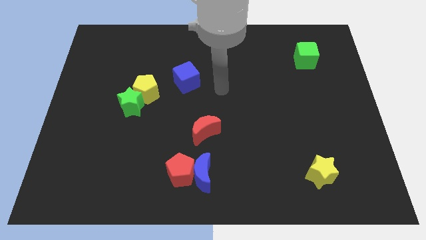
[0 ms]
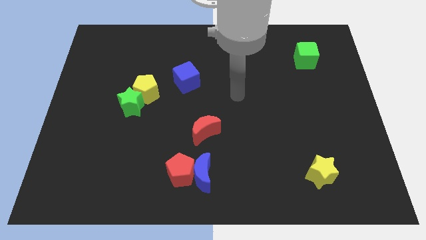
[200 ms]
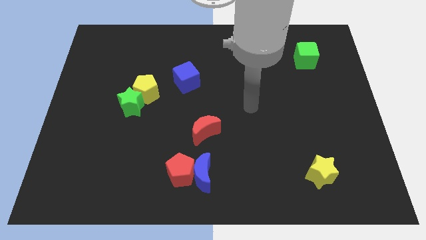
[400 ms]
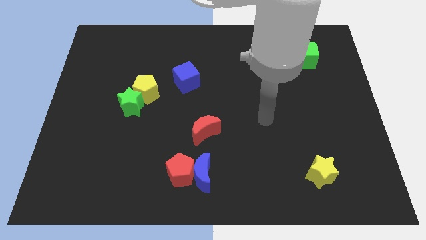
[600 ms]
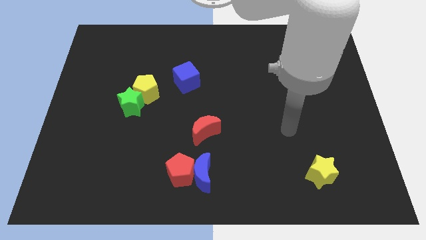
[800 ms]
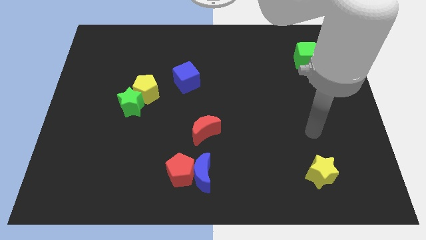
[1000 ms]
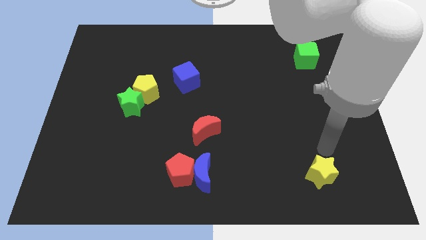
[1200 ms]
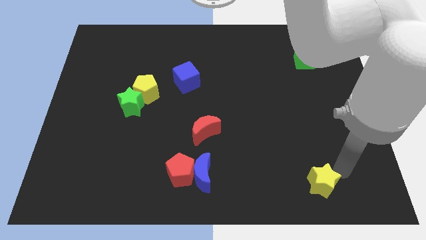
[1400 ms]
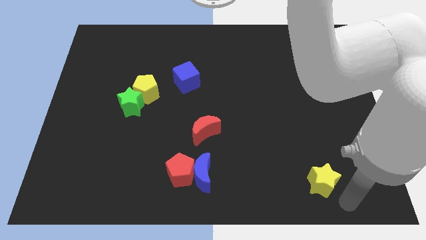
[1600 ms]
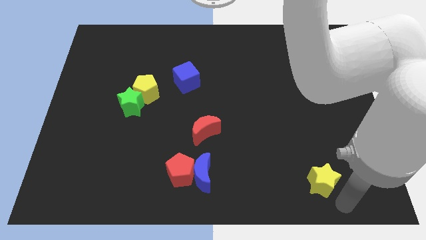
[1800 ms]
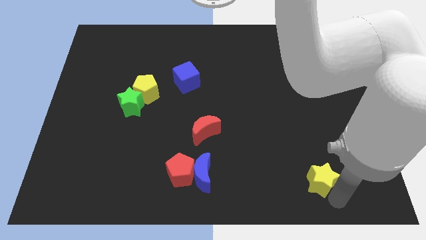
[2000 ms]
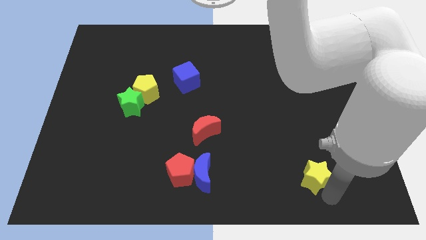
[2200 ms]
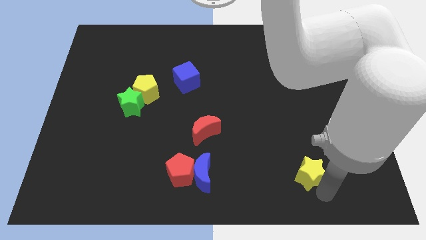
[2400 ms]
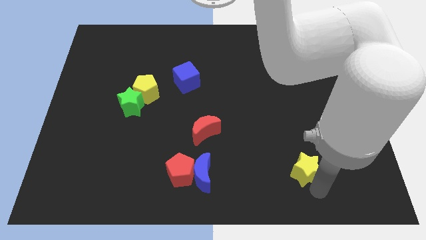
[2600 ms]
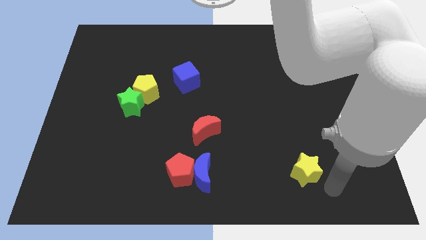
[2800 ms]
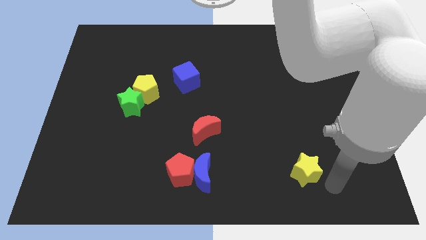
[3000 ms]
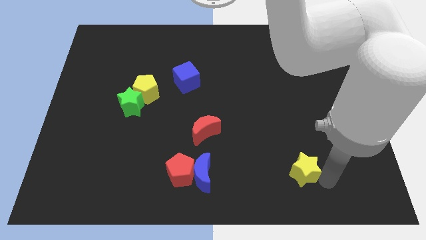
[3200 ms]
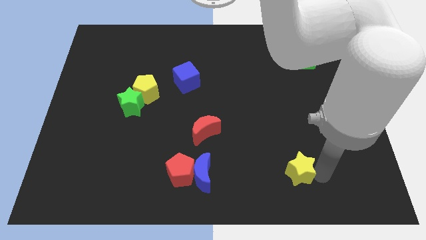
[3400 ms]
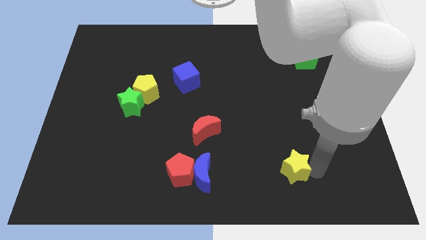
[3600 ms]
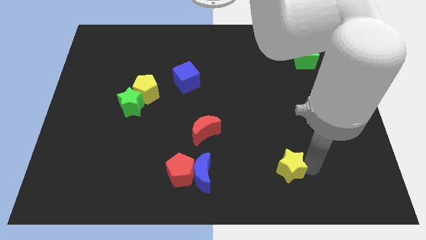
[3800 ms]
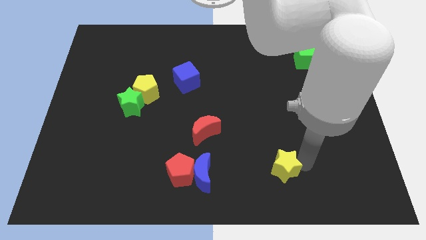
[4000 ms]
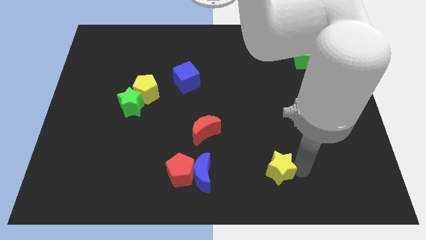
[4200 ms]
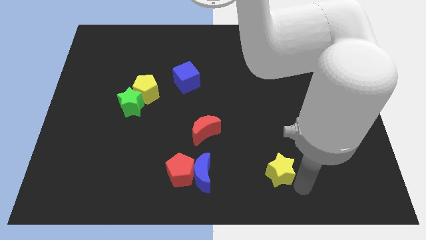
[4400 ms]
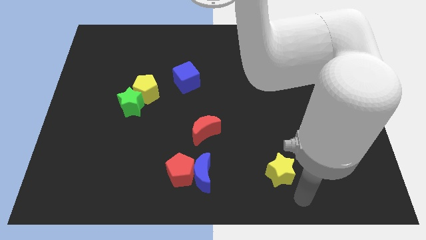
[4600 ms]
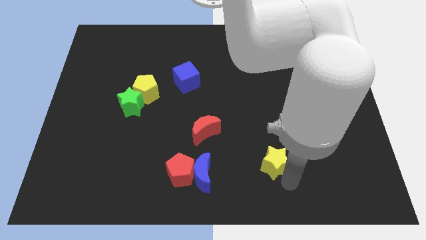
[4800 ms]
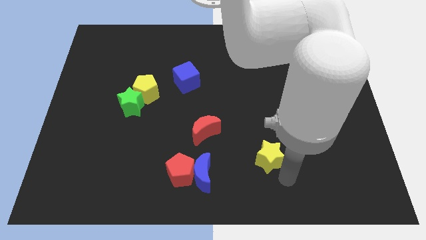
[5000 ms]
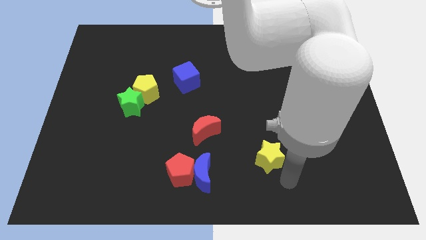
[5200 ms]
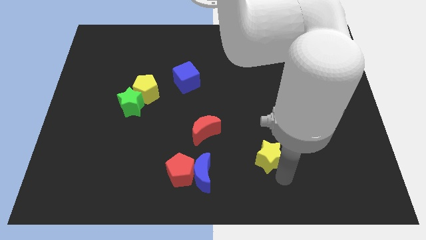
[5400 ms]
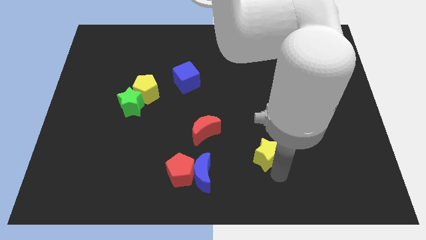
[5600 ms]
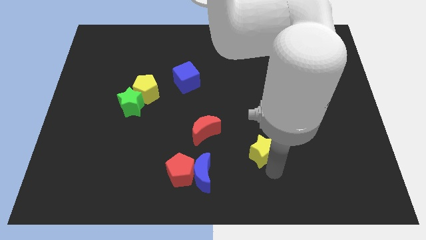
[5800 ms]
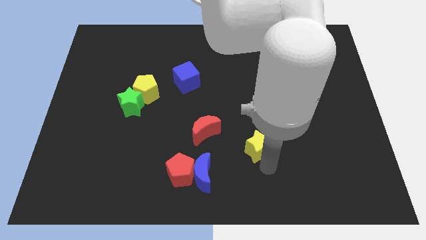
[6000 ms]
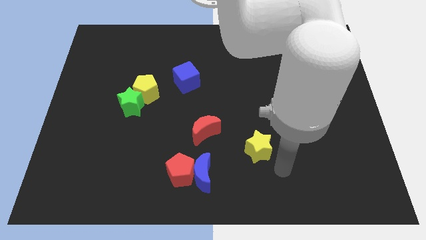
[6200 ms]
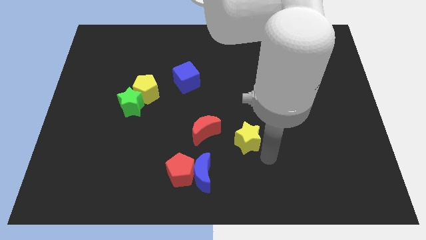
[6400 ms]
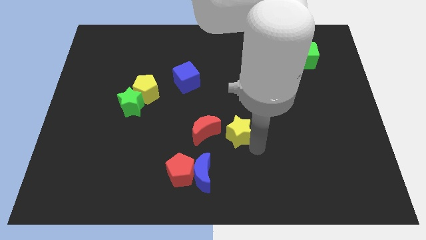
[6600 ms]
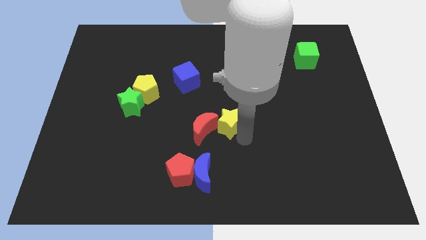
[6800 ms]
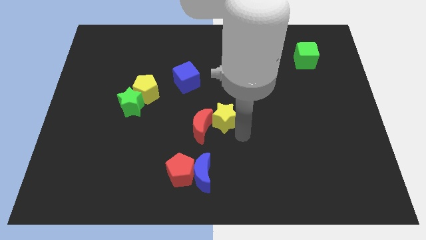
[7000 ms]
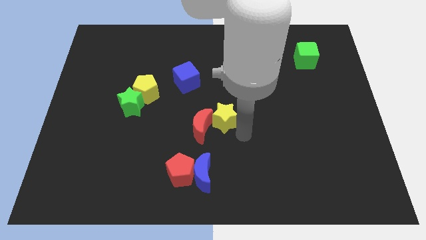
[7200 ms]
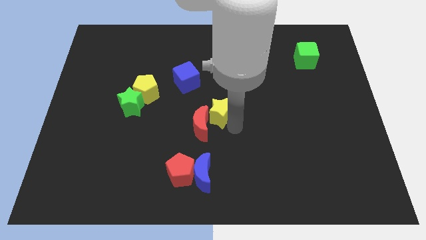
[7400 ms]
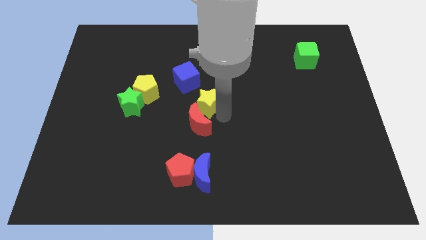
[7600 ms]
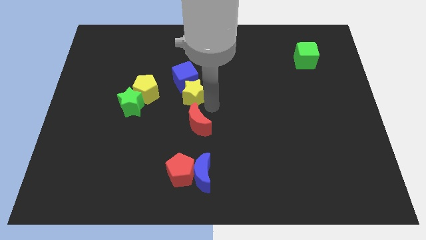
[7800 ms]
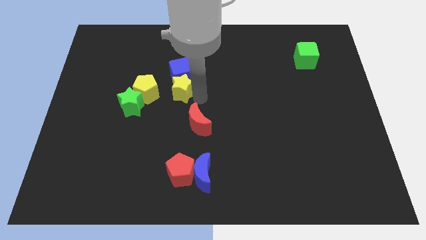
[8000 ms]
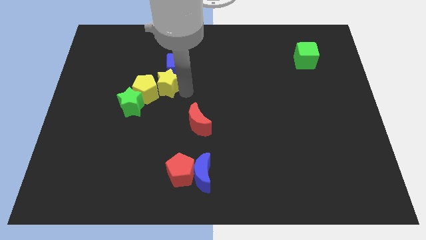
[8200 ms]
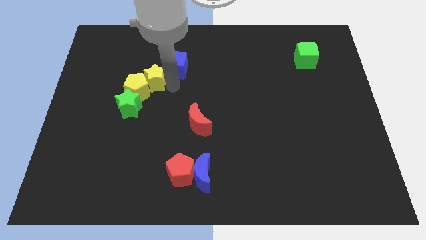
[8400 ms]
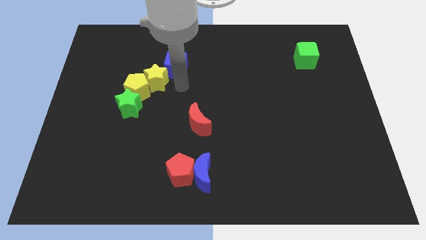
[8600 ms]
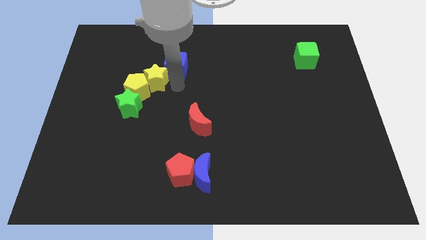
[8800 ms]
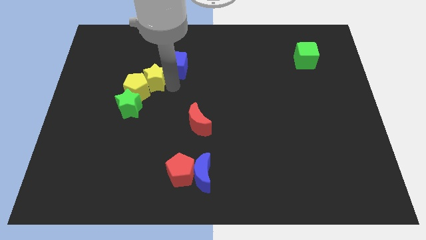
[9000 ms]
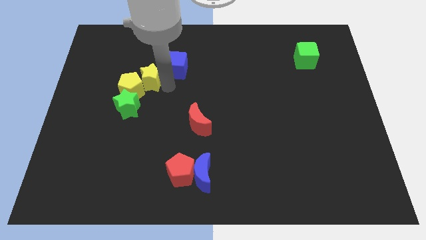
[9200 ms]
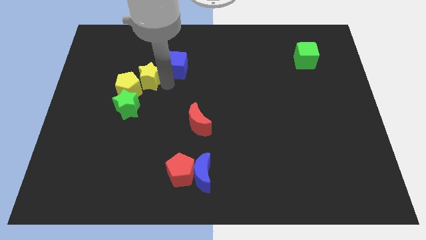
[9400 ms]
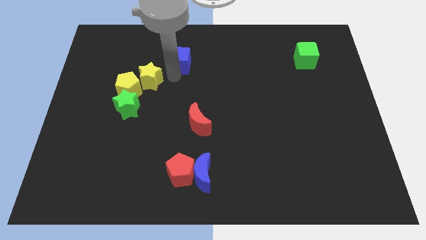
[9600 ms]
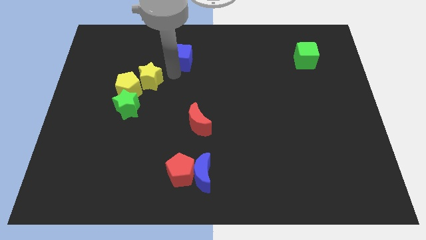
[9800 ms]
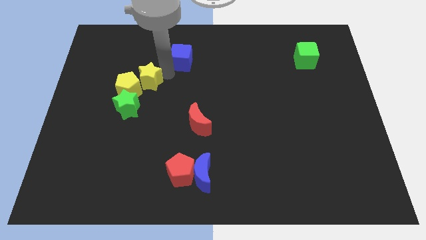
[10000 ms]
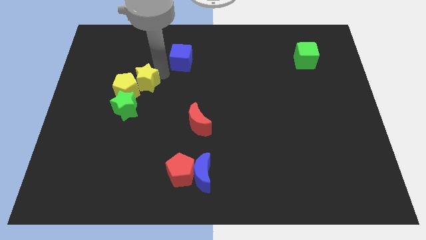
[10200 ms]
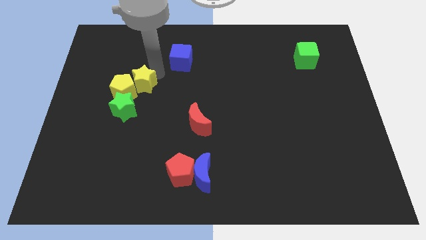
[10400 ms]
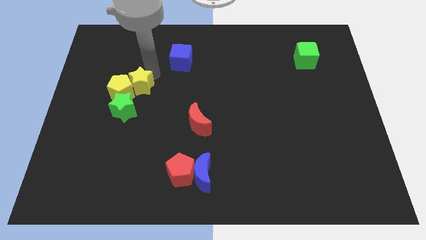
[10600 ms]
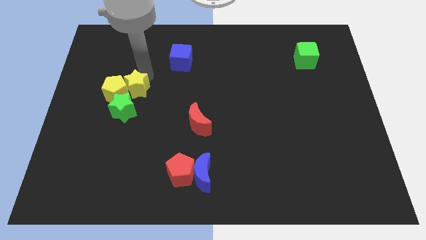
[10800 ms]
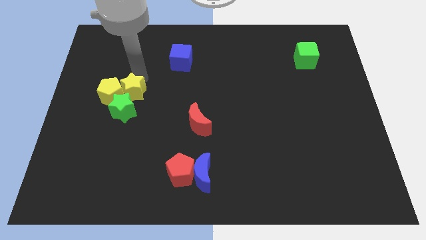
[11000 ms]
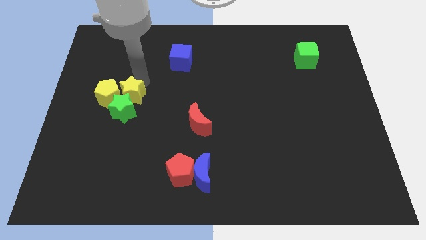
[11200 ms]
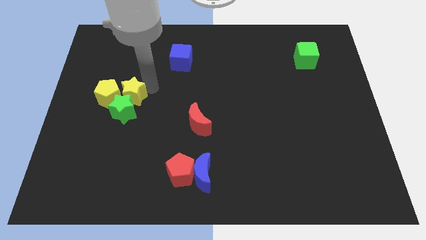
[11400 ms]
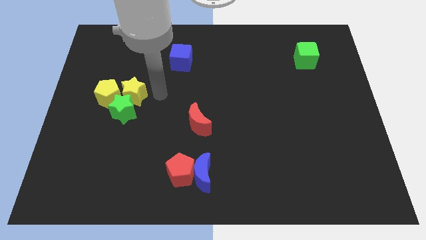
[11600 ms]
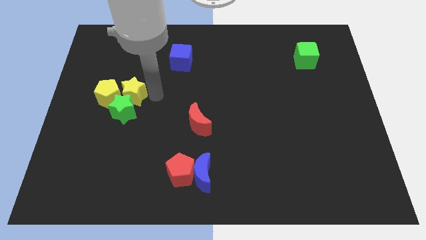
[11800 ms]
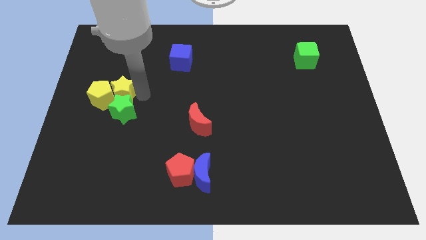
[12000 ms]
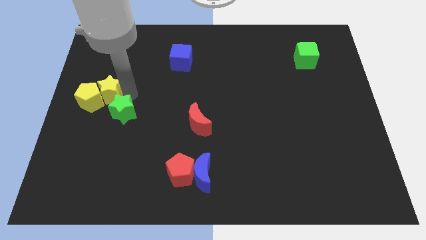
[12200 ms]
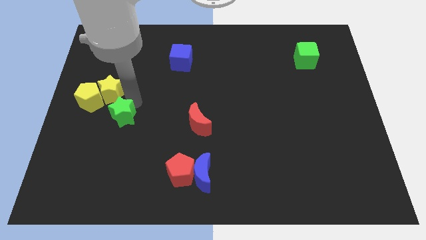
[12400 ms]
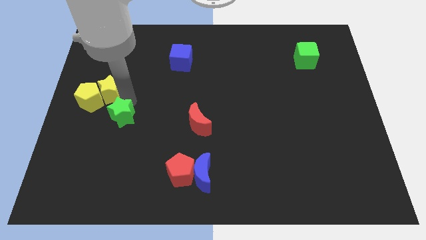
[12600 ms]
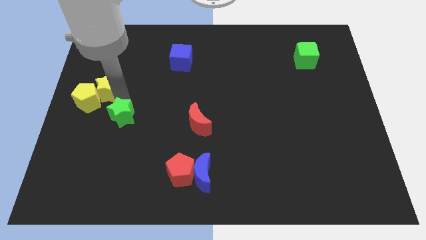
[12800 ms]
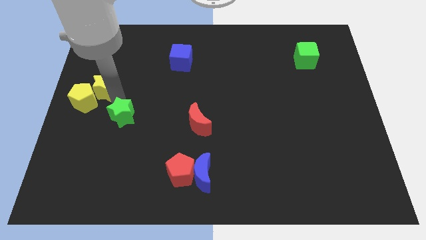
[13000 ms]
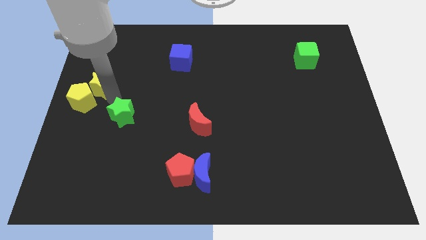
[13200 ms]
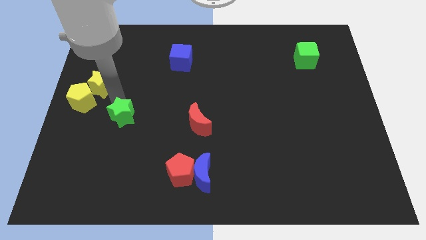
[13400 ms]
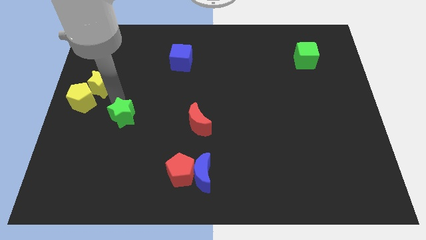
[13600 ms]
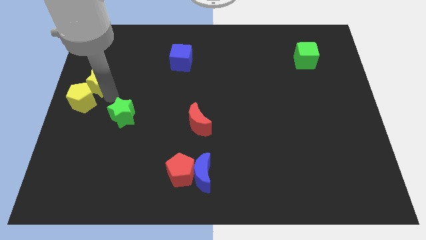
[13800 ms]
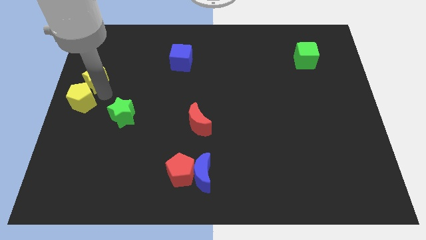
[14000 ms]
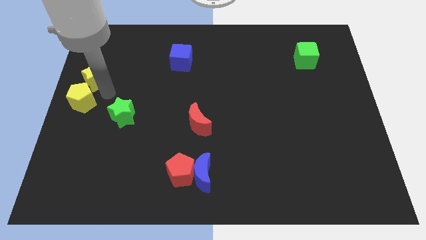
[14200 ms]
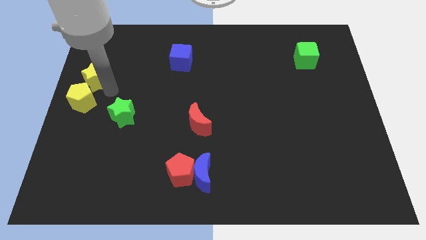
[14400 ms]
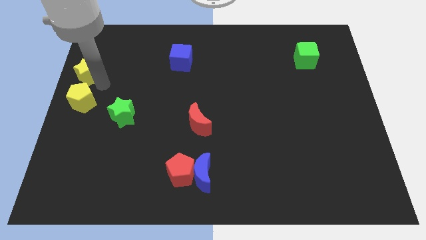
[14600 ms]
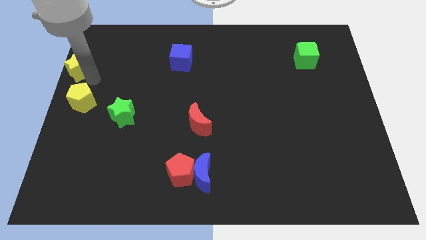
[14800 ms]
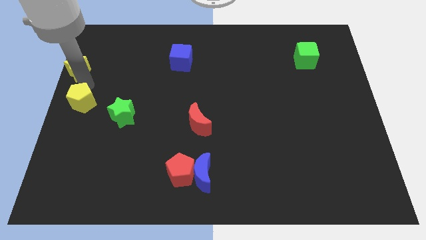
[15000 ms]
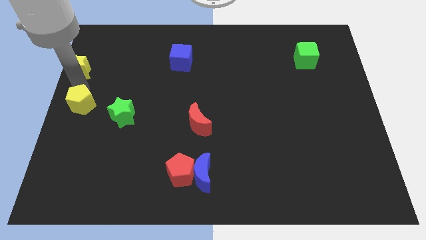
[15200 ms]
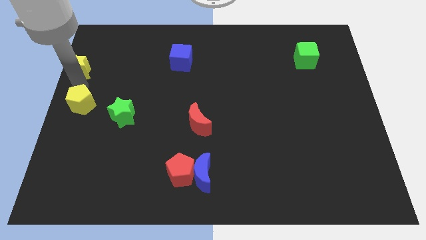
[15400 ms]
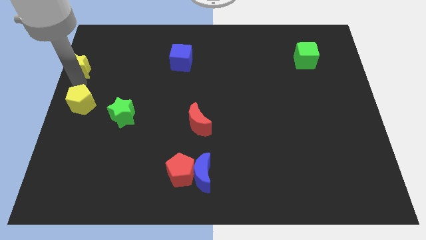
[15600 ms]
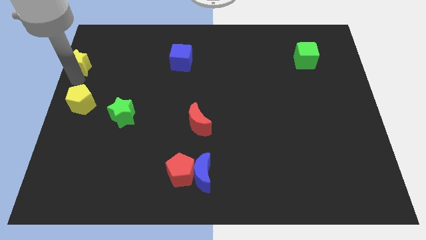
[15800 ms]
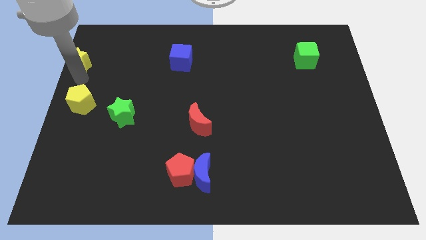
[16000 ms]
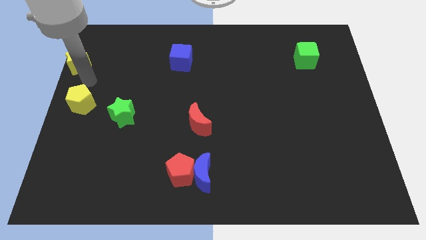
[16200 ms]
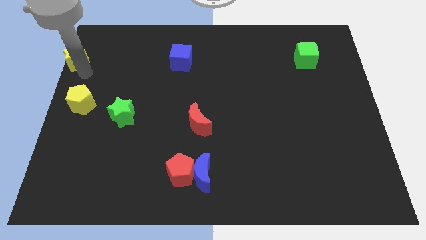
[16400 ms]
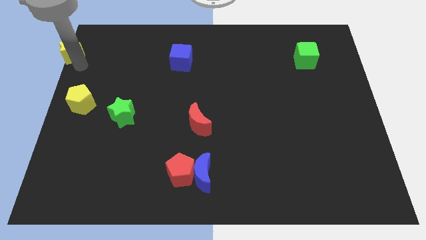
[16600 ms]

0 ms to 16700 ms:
move the yellow star to the top left
